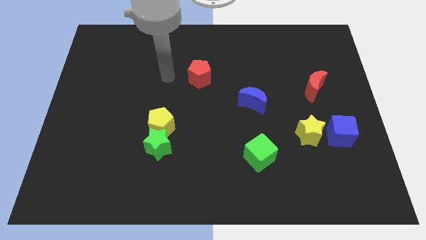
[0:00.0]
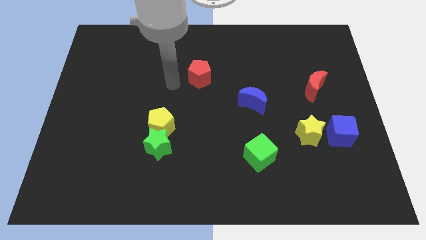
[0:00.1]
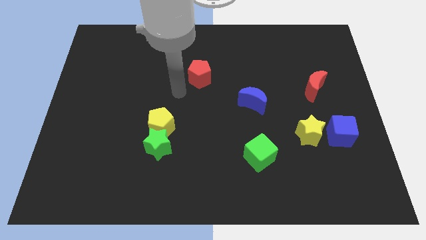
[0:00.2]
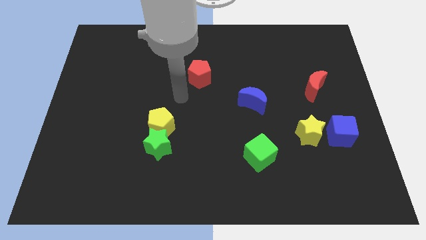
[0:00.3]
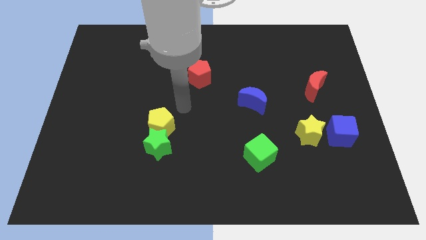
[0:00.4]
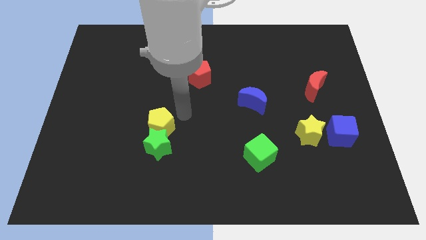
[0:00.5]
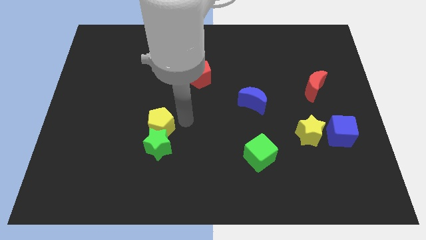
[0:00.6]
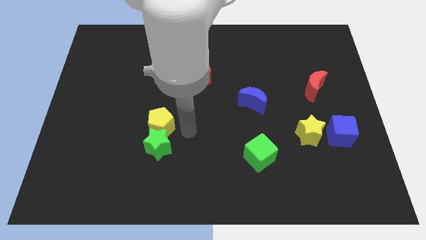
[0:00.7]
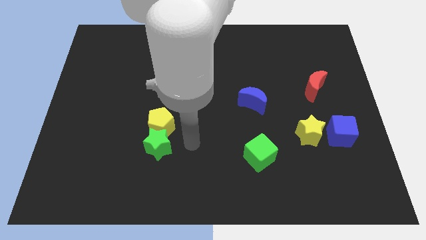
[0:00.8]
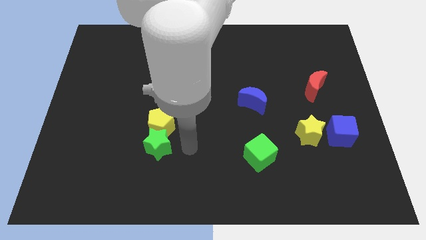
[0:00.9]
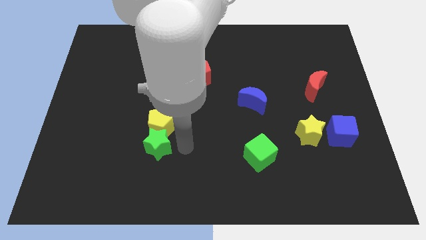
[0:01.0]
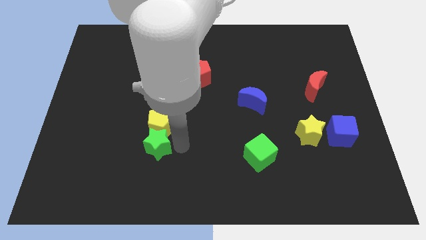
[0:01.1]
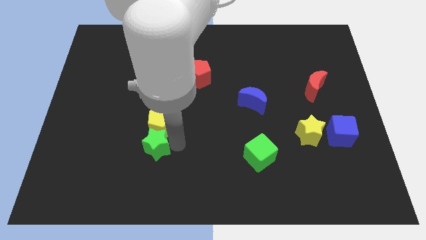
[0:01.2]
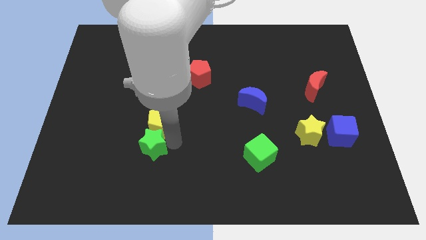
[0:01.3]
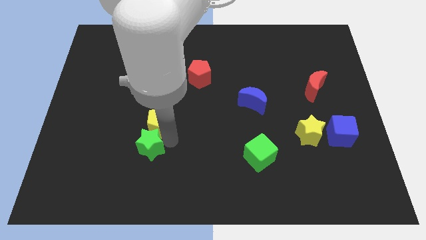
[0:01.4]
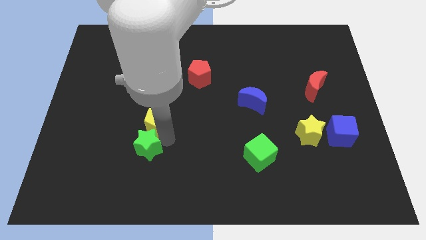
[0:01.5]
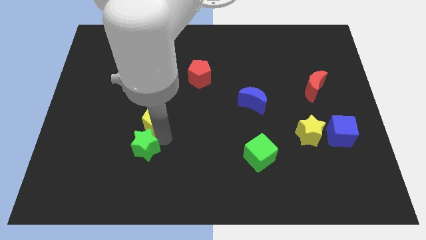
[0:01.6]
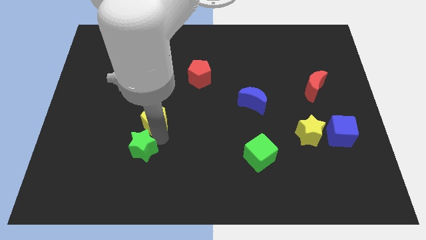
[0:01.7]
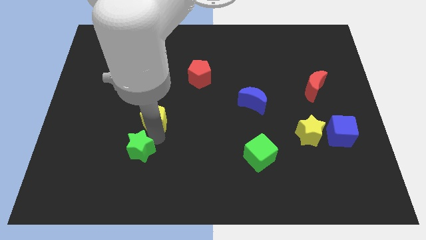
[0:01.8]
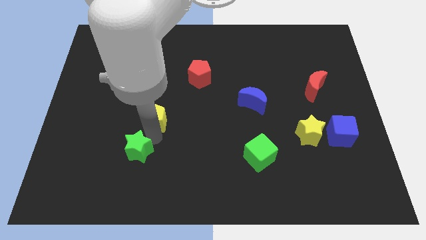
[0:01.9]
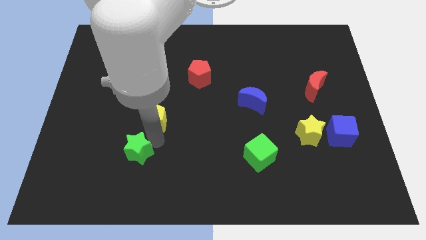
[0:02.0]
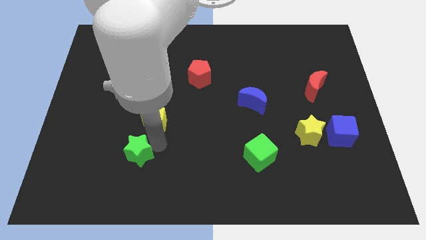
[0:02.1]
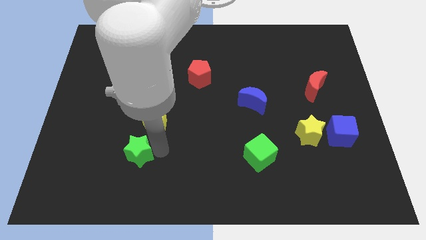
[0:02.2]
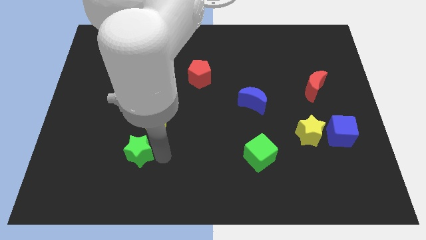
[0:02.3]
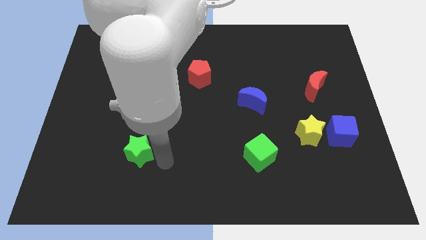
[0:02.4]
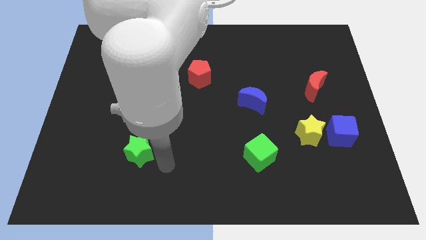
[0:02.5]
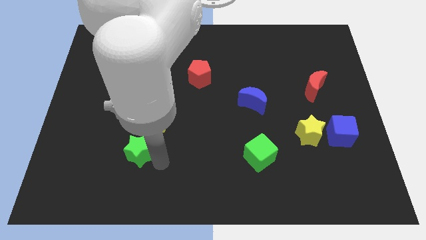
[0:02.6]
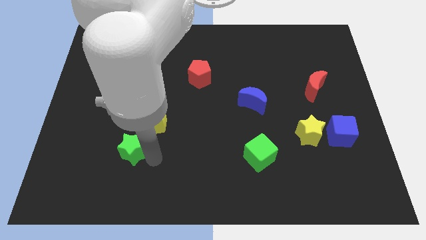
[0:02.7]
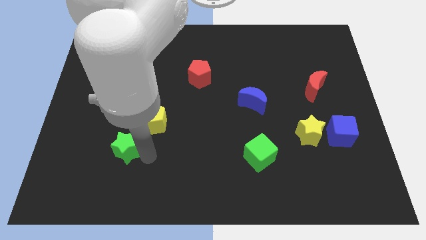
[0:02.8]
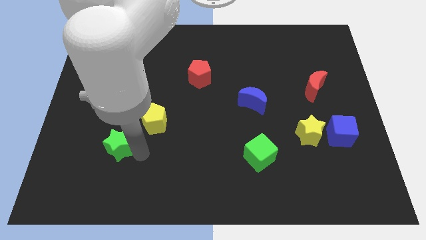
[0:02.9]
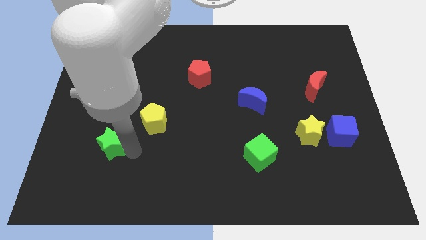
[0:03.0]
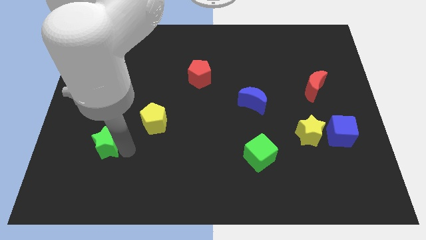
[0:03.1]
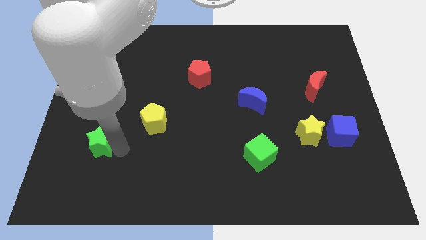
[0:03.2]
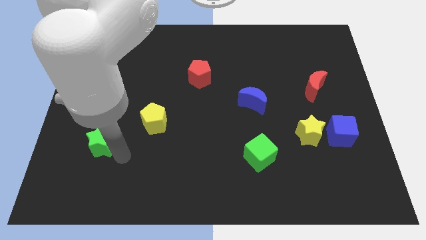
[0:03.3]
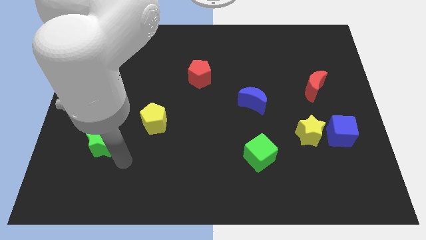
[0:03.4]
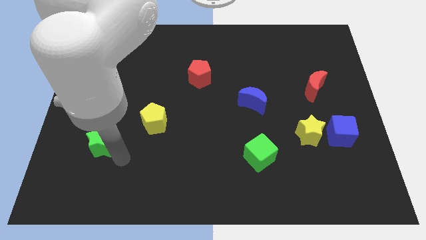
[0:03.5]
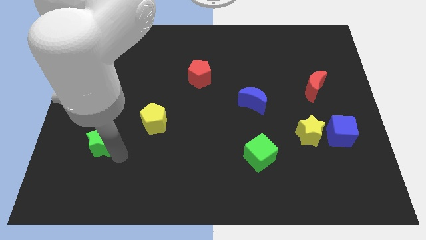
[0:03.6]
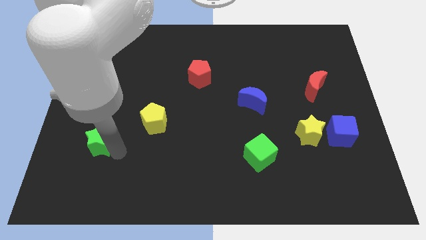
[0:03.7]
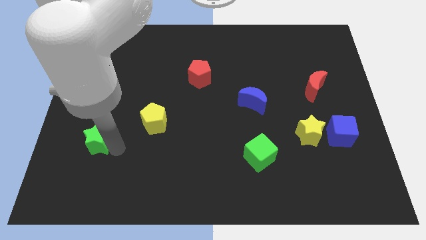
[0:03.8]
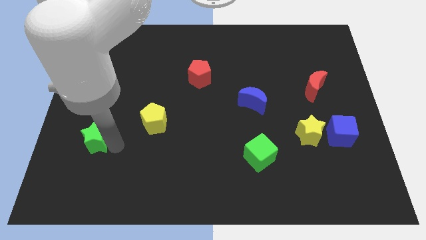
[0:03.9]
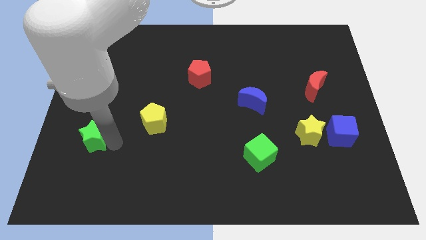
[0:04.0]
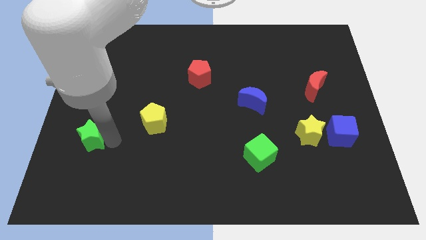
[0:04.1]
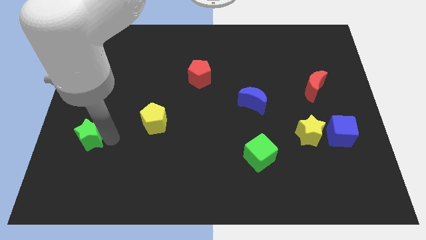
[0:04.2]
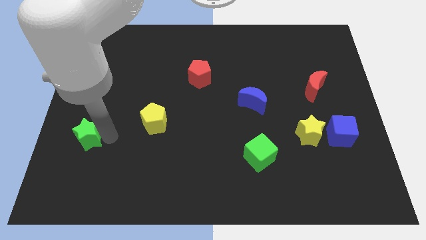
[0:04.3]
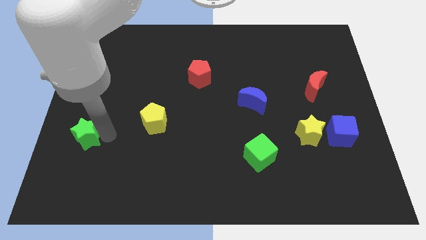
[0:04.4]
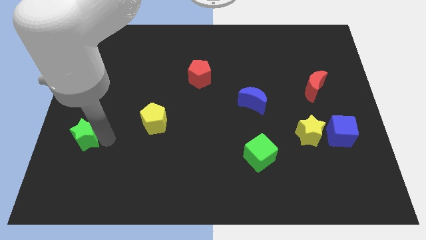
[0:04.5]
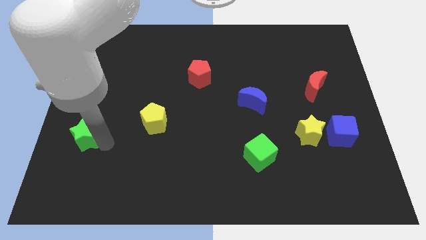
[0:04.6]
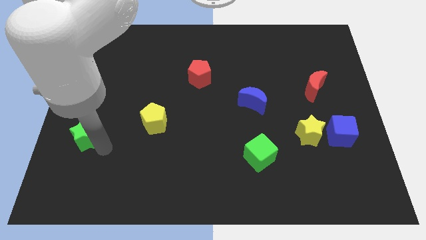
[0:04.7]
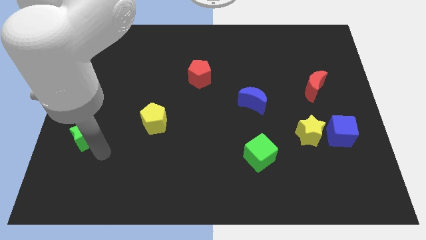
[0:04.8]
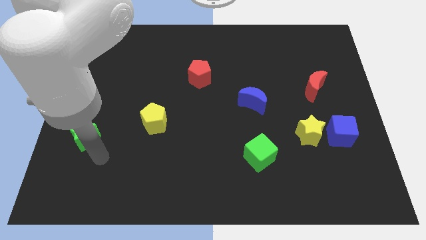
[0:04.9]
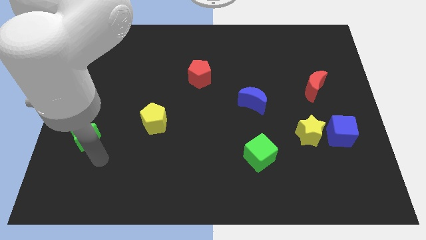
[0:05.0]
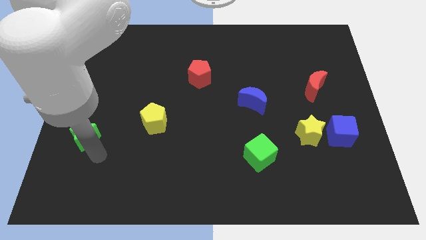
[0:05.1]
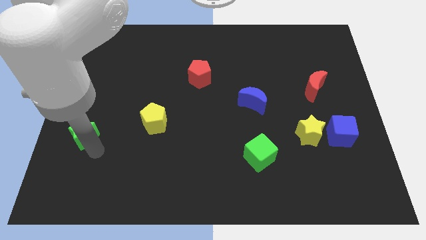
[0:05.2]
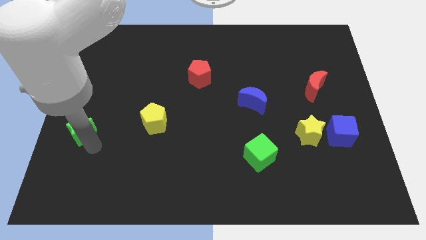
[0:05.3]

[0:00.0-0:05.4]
put the green star to the center left
